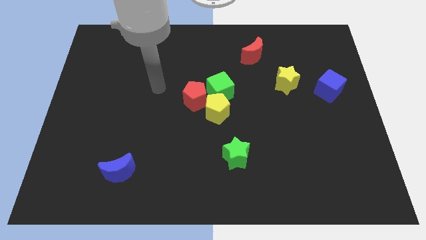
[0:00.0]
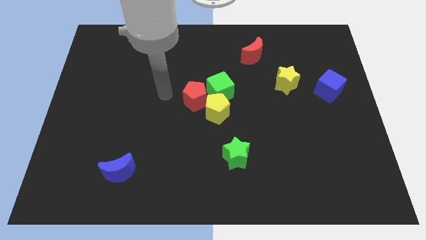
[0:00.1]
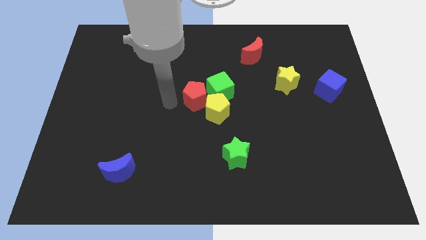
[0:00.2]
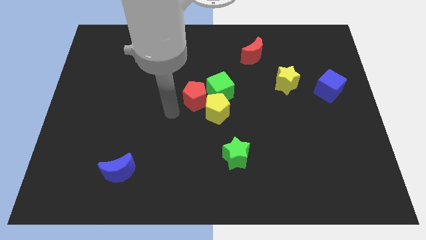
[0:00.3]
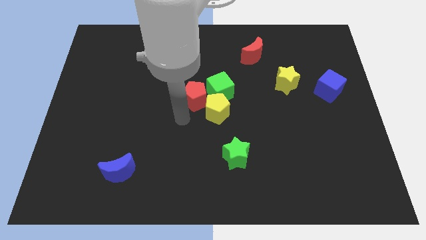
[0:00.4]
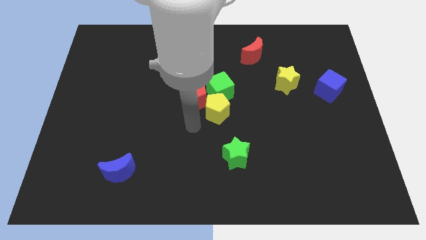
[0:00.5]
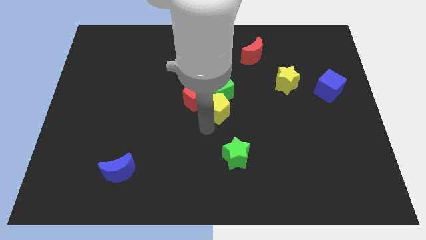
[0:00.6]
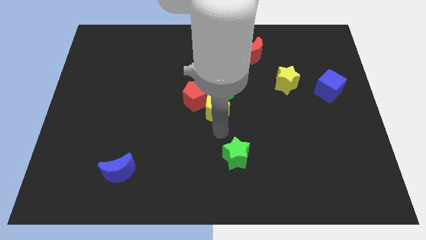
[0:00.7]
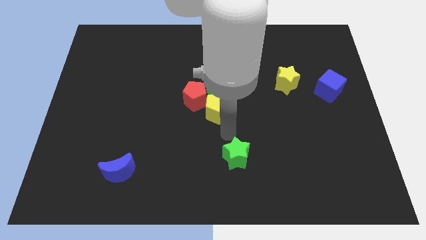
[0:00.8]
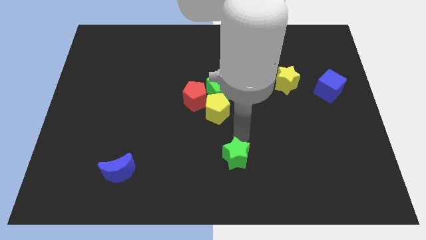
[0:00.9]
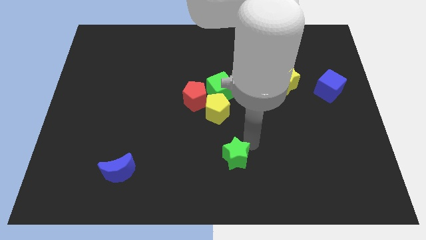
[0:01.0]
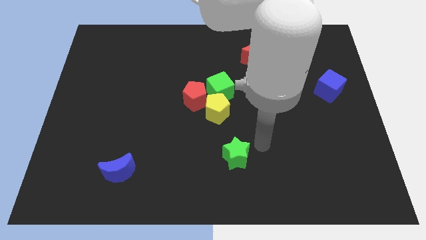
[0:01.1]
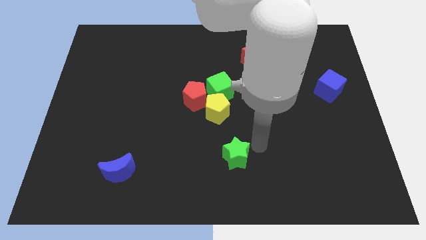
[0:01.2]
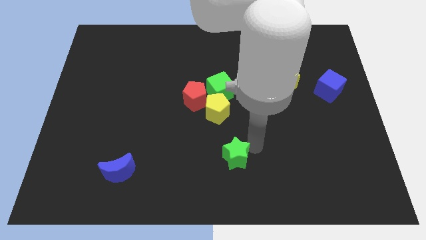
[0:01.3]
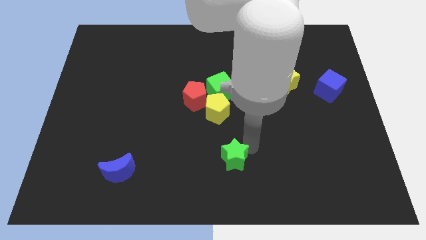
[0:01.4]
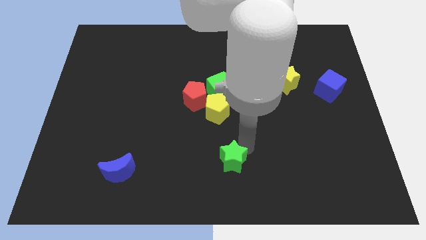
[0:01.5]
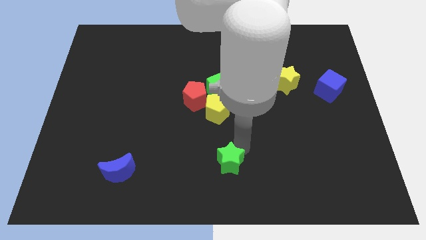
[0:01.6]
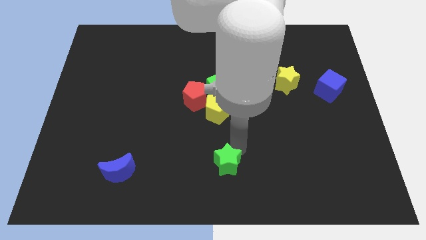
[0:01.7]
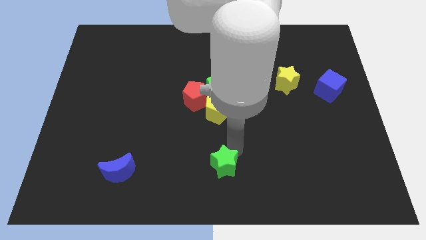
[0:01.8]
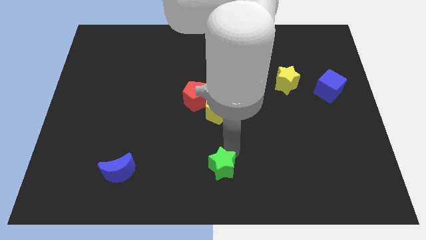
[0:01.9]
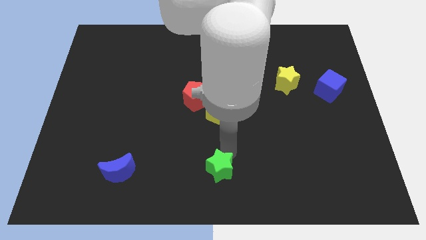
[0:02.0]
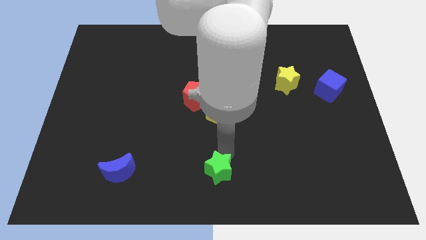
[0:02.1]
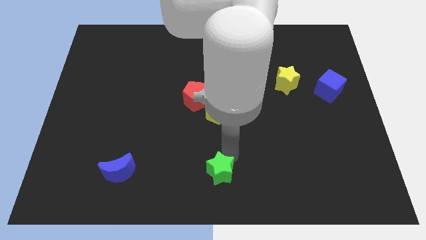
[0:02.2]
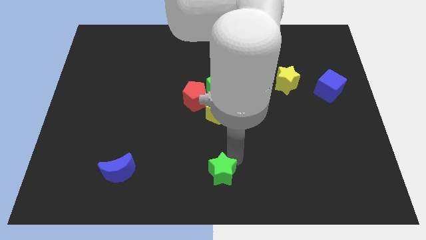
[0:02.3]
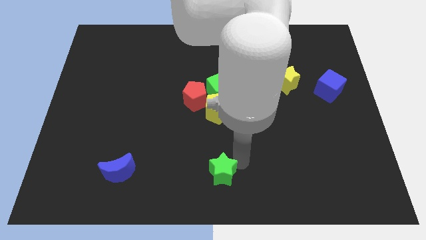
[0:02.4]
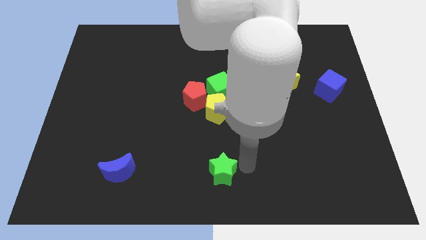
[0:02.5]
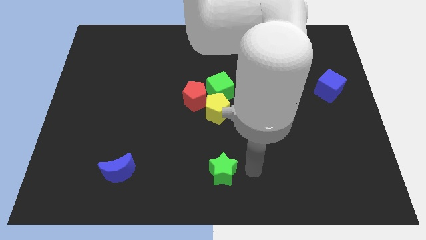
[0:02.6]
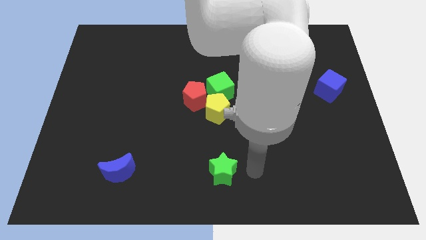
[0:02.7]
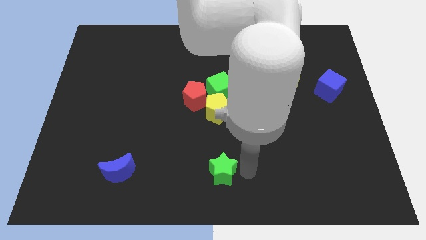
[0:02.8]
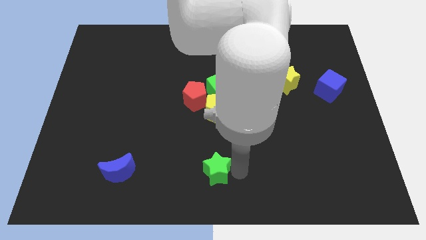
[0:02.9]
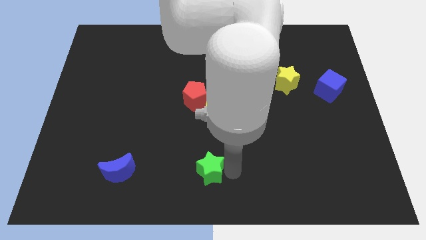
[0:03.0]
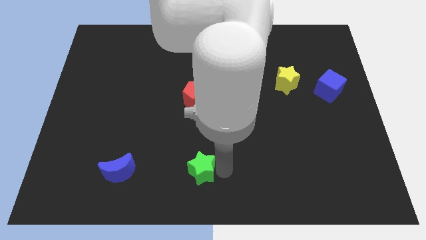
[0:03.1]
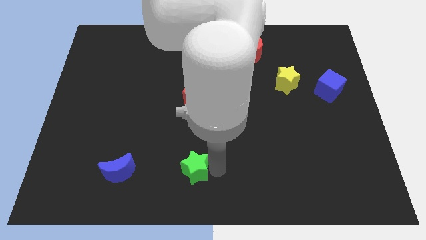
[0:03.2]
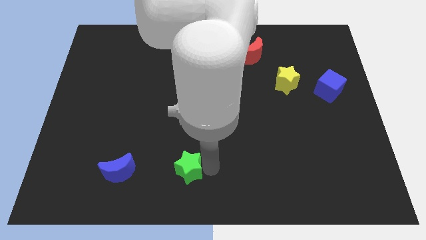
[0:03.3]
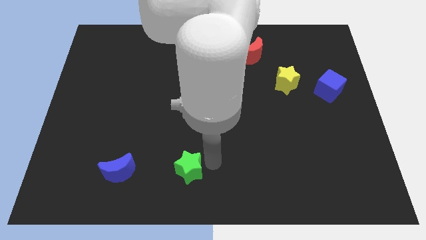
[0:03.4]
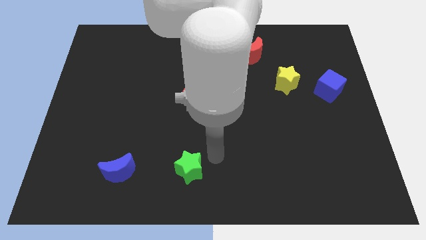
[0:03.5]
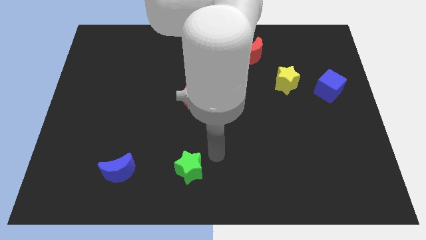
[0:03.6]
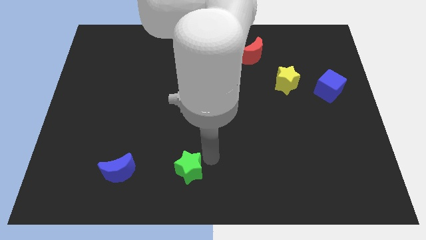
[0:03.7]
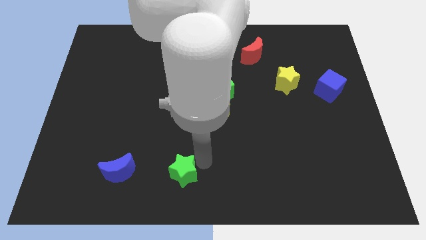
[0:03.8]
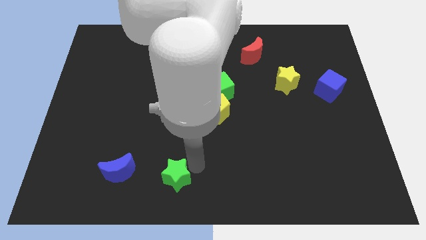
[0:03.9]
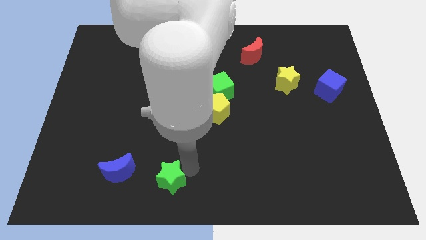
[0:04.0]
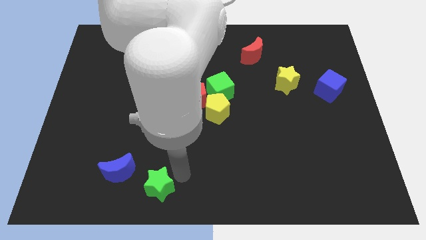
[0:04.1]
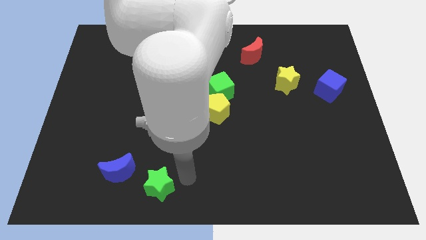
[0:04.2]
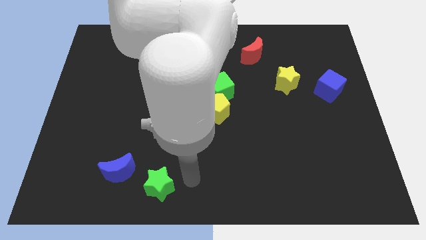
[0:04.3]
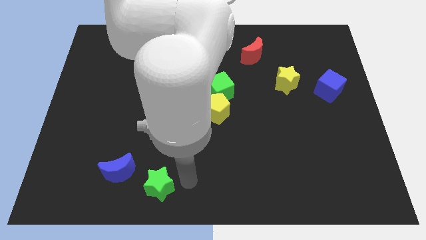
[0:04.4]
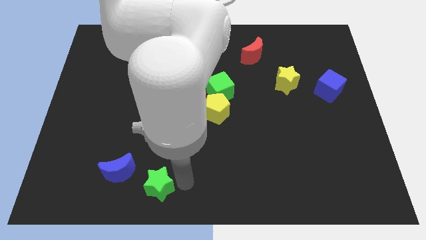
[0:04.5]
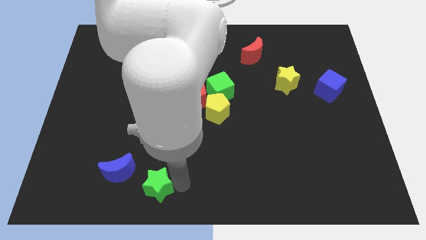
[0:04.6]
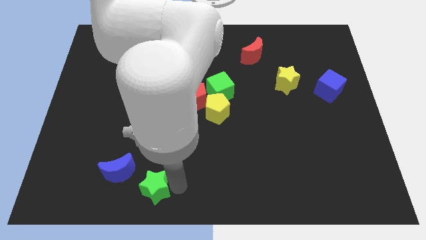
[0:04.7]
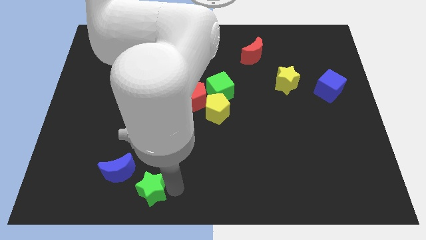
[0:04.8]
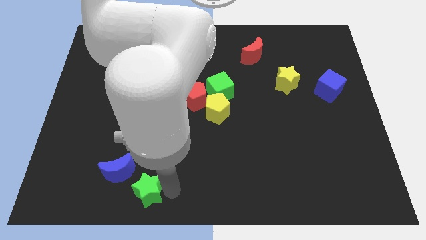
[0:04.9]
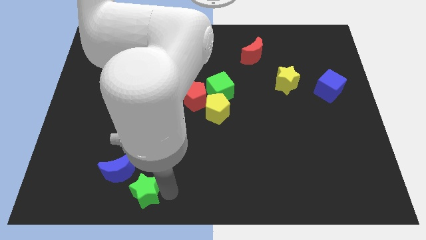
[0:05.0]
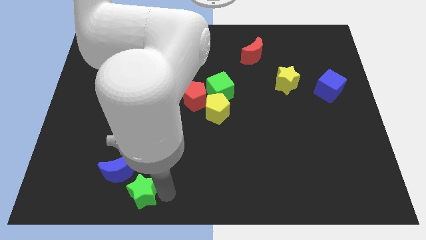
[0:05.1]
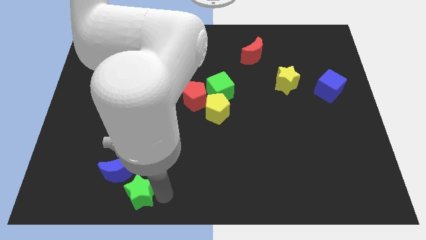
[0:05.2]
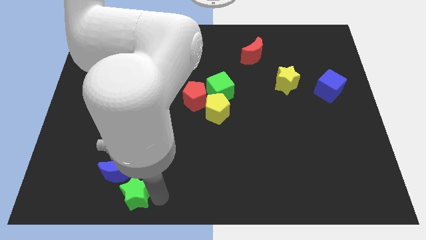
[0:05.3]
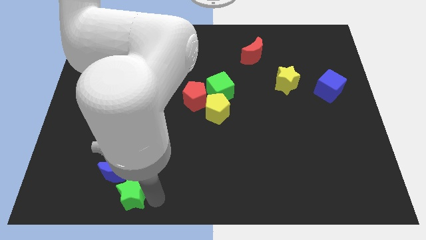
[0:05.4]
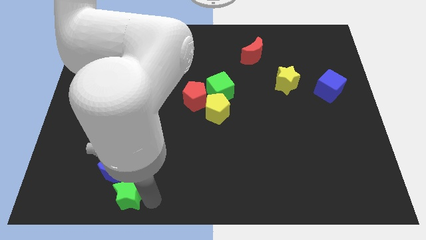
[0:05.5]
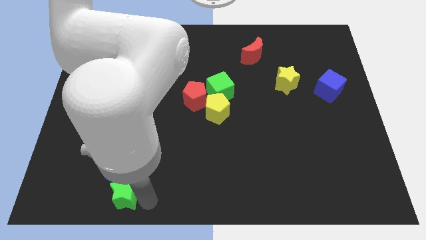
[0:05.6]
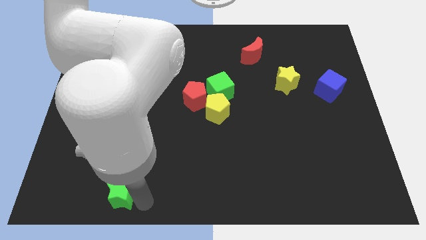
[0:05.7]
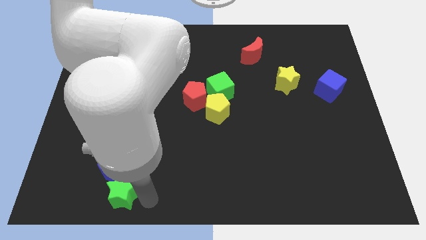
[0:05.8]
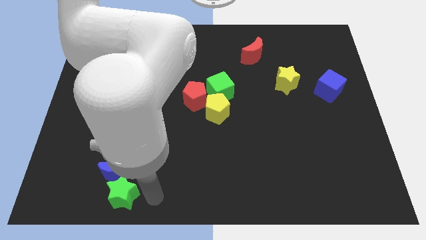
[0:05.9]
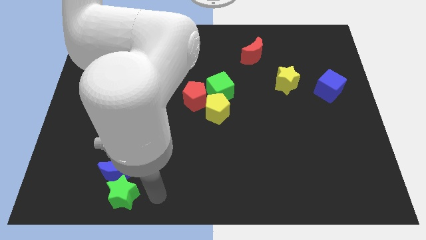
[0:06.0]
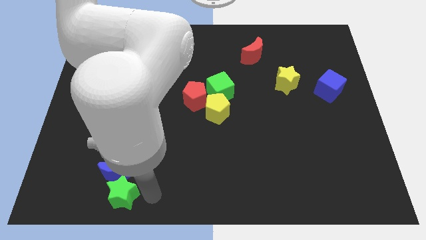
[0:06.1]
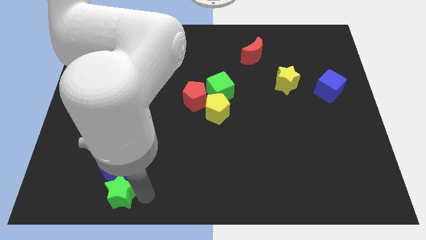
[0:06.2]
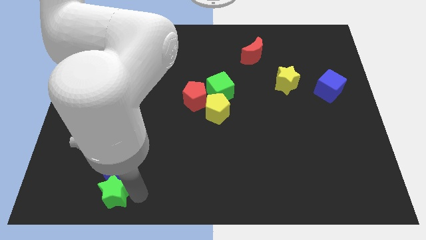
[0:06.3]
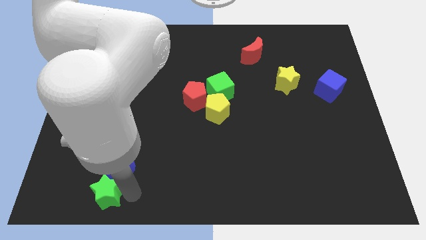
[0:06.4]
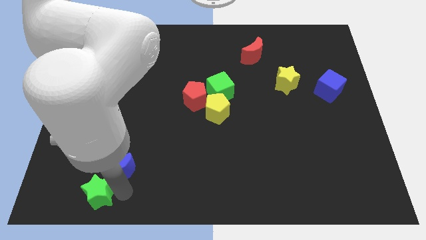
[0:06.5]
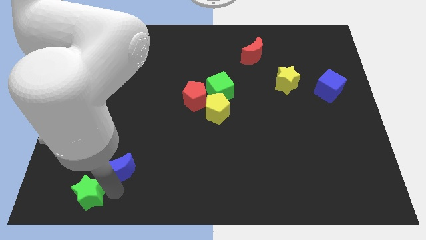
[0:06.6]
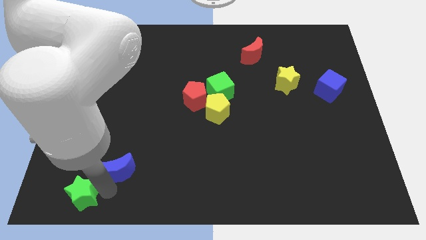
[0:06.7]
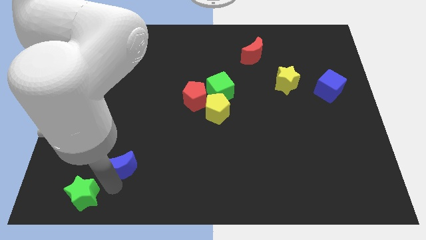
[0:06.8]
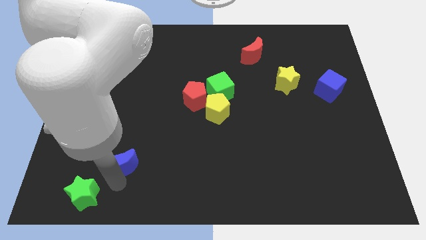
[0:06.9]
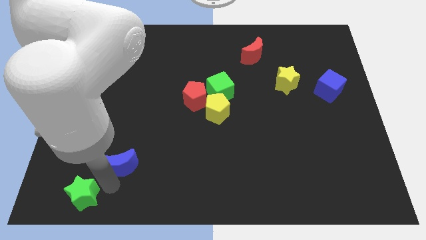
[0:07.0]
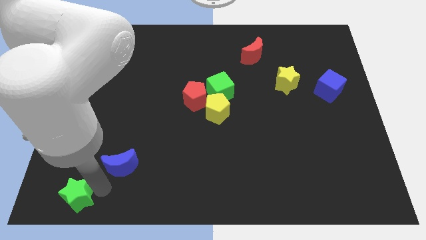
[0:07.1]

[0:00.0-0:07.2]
put the green star to the bottom left of the board
